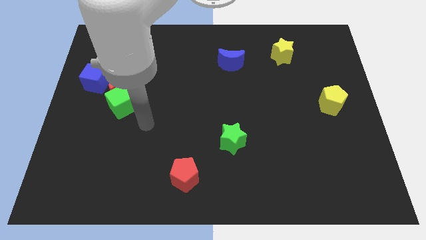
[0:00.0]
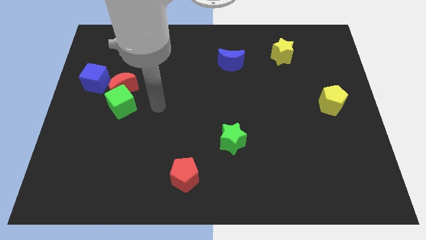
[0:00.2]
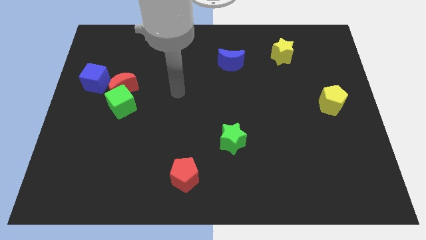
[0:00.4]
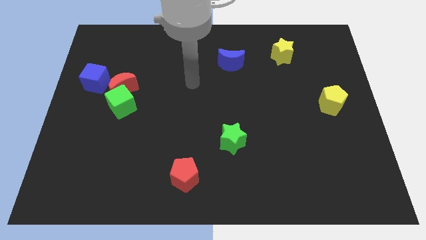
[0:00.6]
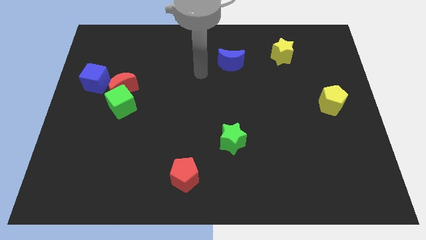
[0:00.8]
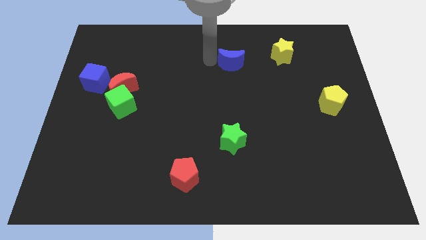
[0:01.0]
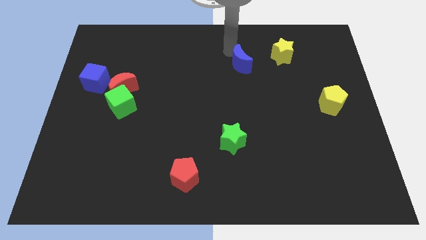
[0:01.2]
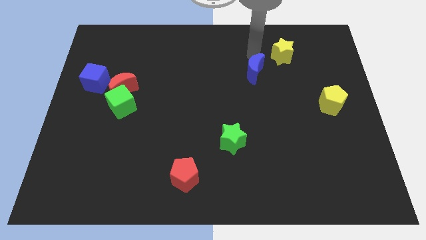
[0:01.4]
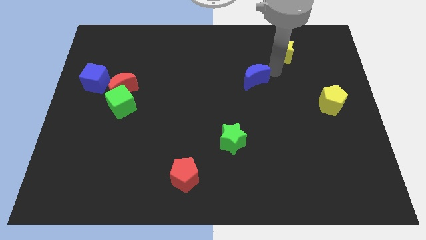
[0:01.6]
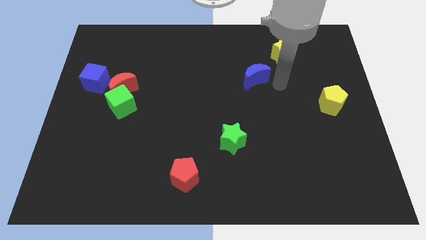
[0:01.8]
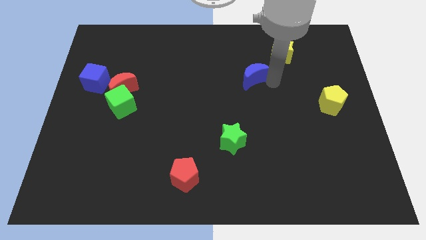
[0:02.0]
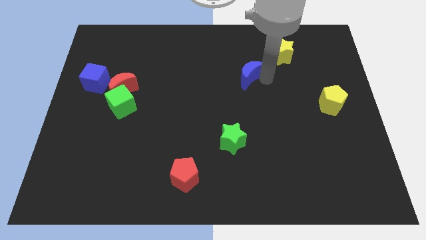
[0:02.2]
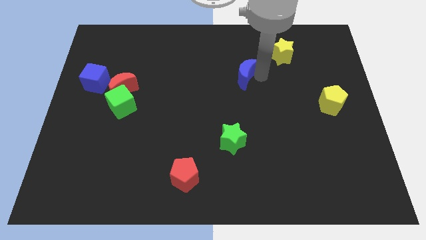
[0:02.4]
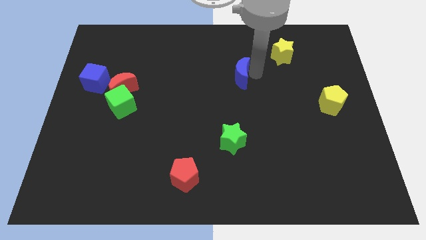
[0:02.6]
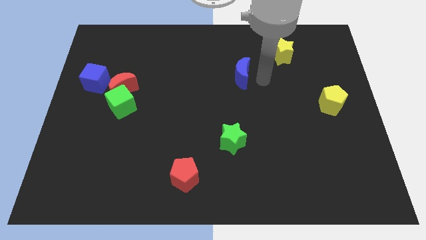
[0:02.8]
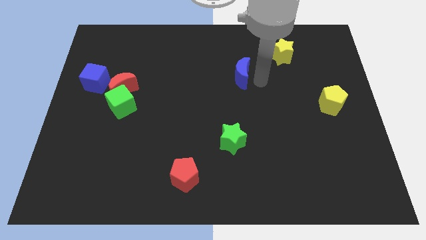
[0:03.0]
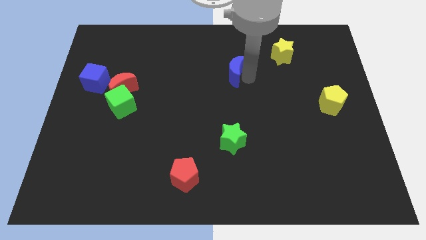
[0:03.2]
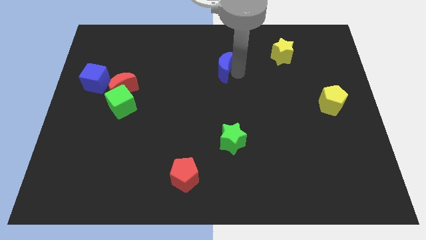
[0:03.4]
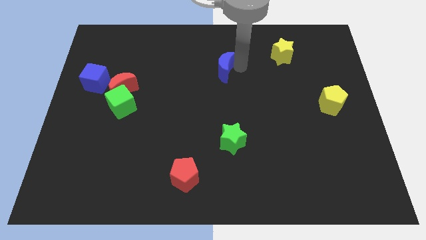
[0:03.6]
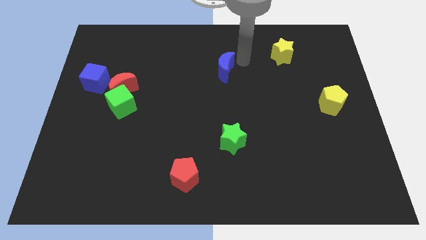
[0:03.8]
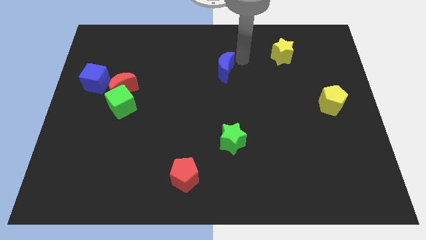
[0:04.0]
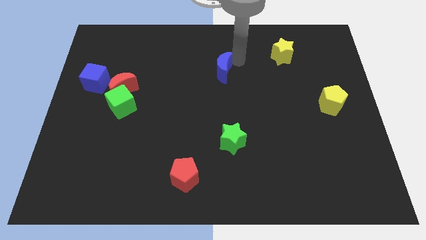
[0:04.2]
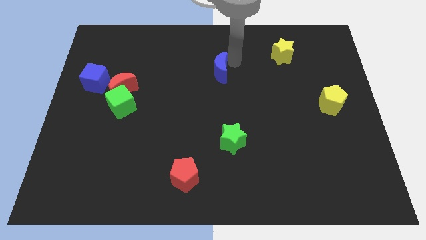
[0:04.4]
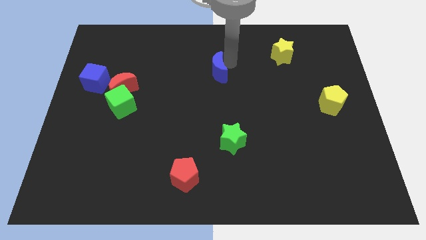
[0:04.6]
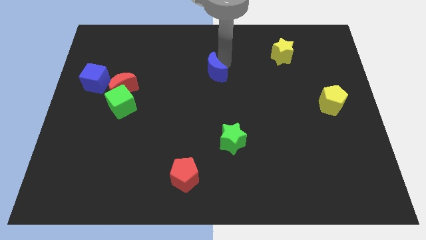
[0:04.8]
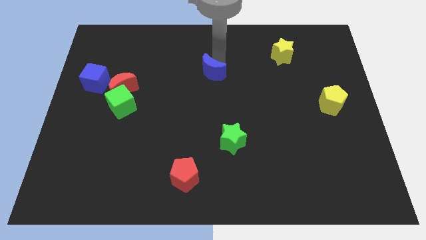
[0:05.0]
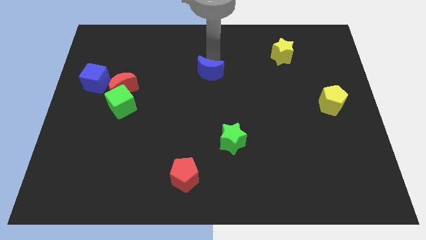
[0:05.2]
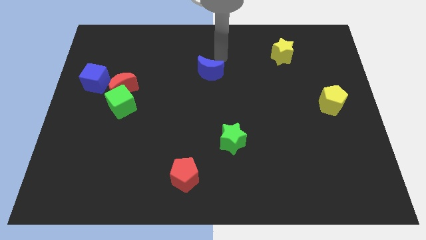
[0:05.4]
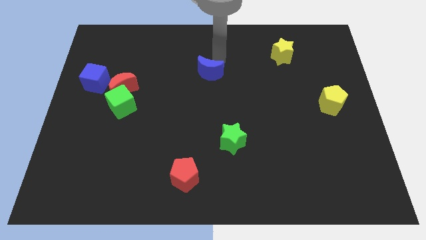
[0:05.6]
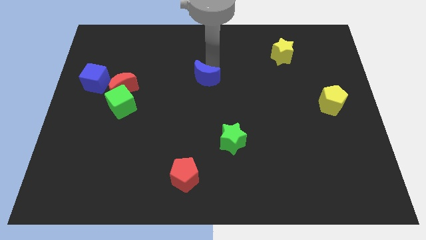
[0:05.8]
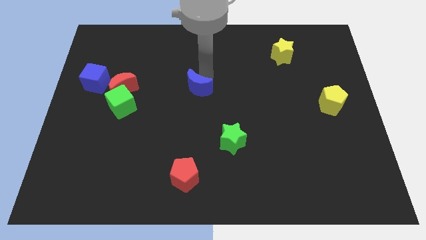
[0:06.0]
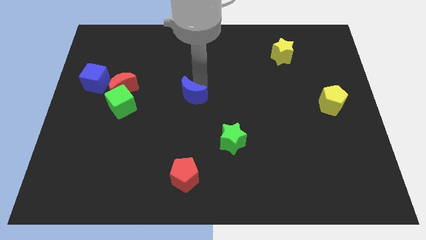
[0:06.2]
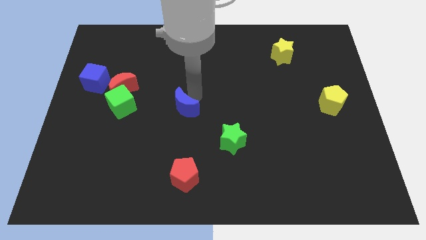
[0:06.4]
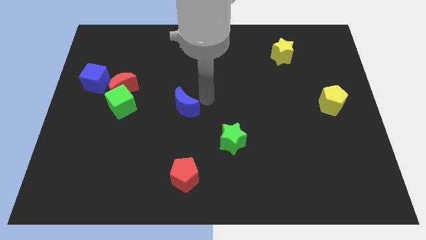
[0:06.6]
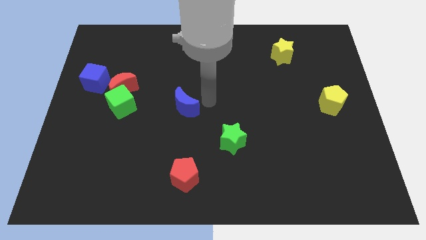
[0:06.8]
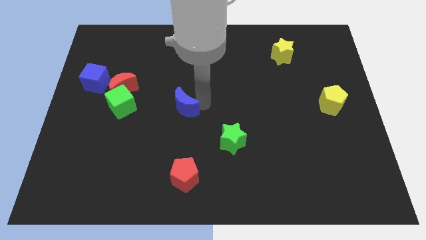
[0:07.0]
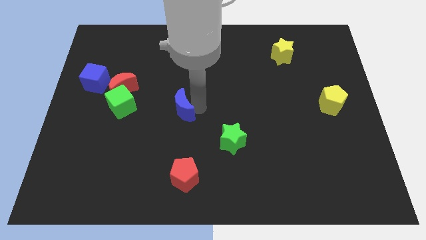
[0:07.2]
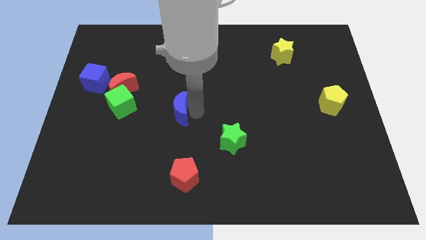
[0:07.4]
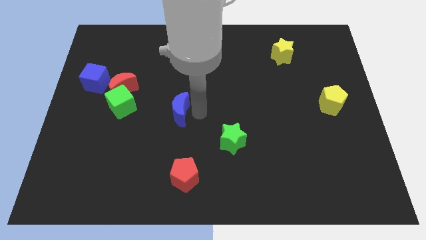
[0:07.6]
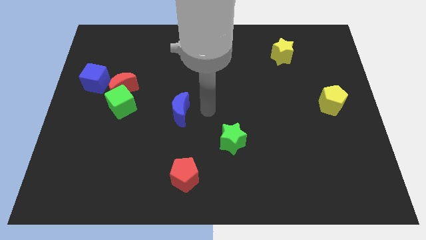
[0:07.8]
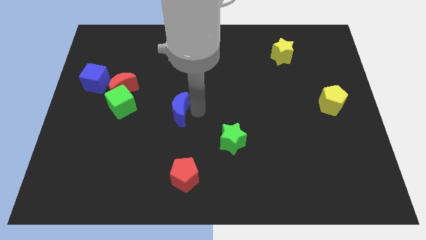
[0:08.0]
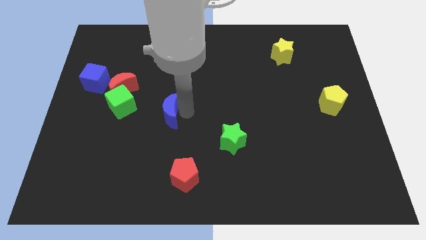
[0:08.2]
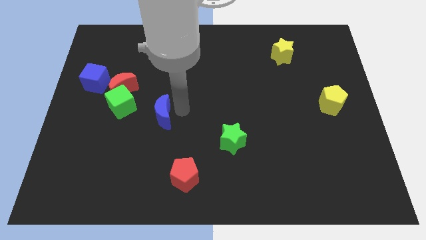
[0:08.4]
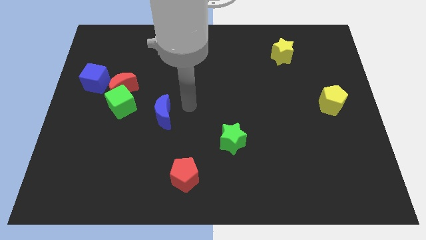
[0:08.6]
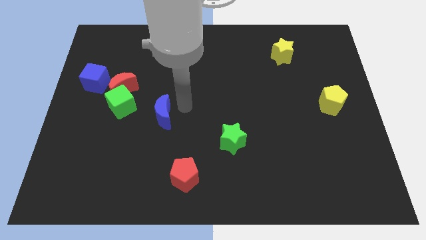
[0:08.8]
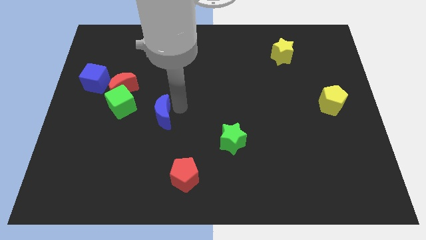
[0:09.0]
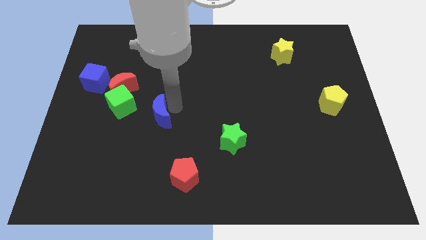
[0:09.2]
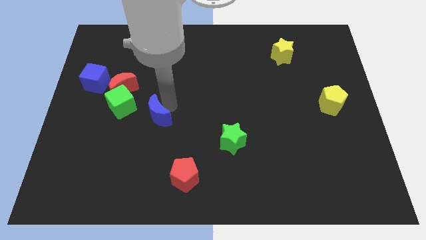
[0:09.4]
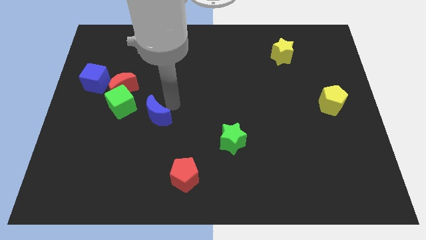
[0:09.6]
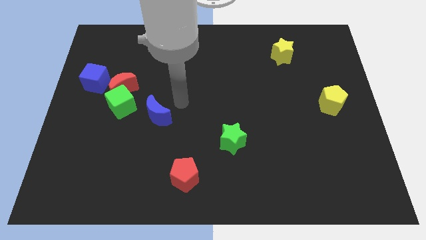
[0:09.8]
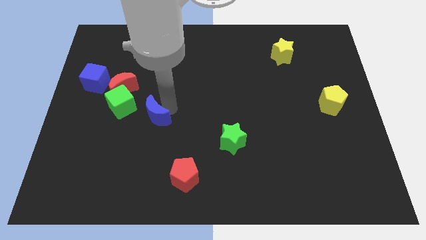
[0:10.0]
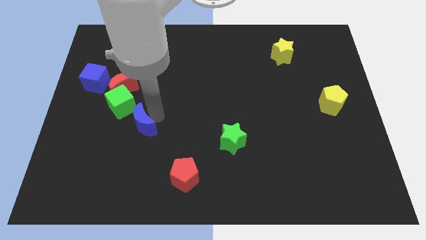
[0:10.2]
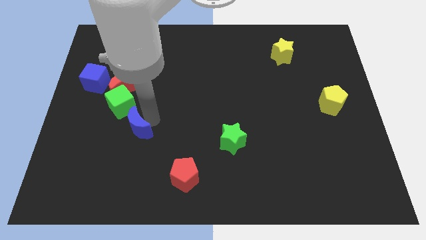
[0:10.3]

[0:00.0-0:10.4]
slide the blue moon to the bottom of the green cube

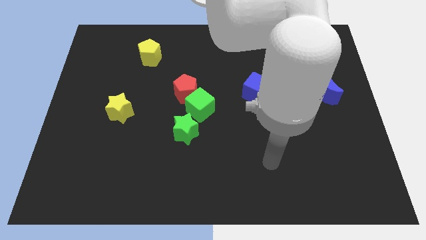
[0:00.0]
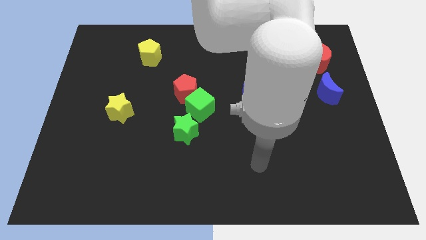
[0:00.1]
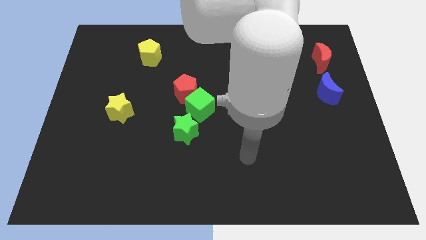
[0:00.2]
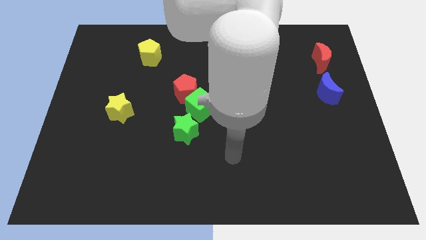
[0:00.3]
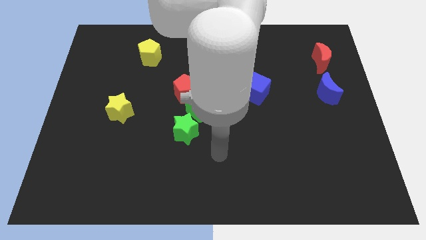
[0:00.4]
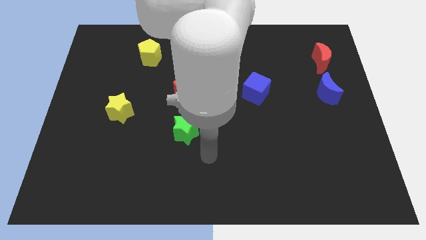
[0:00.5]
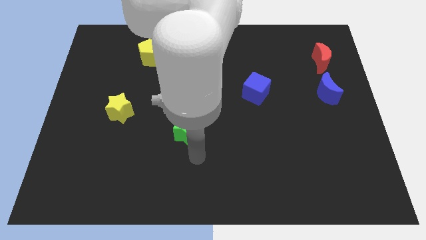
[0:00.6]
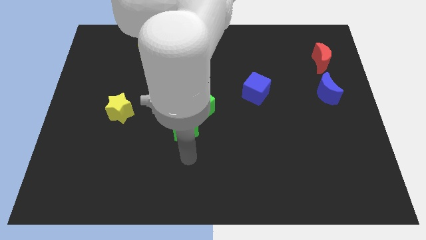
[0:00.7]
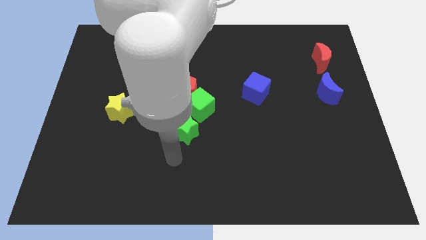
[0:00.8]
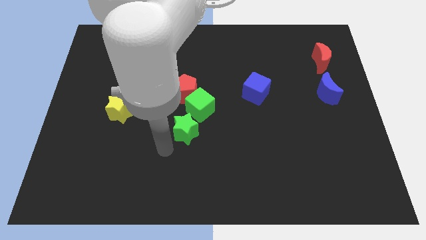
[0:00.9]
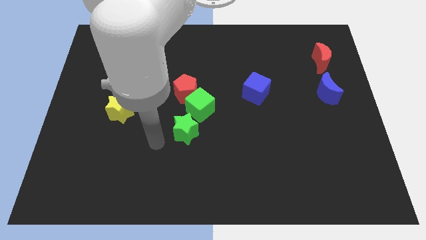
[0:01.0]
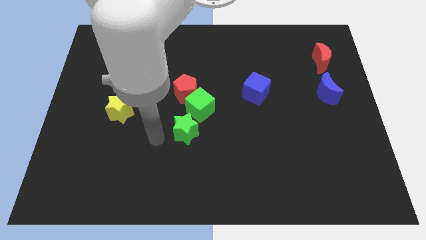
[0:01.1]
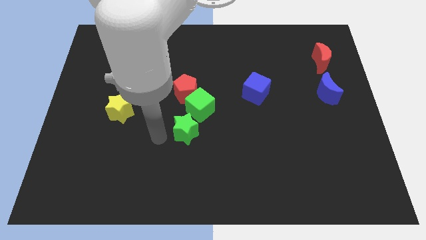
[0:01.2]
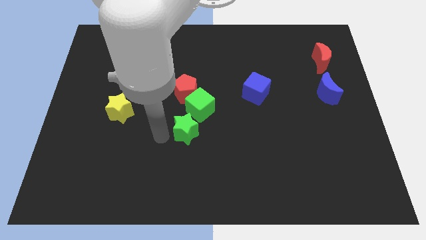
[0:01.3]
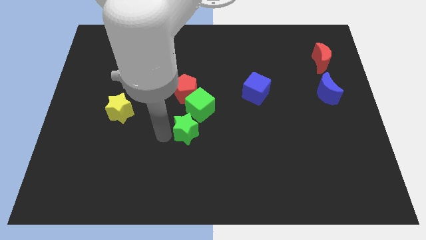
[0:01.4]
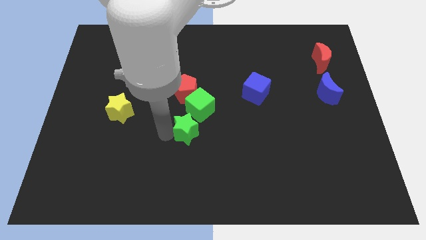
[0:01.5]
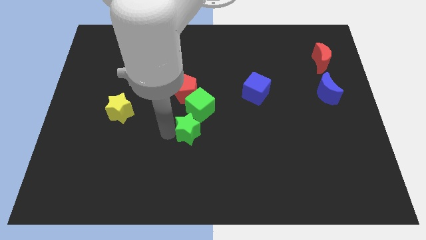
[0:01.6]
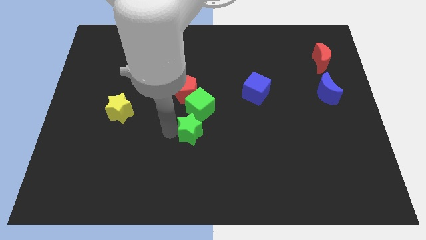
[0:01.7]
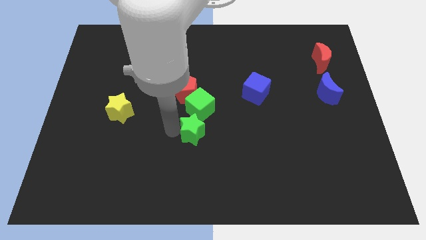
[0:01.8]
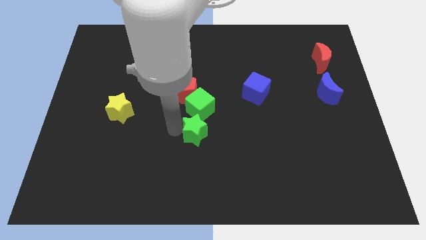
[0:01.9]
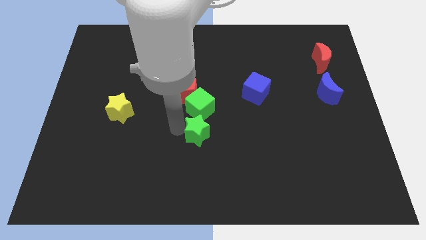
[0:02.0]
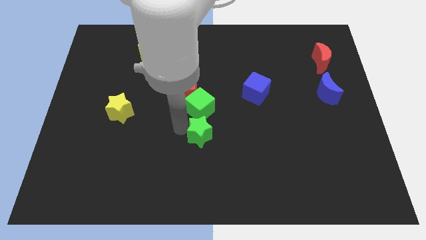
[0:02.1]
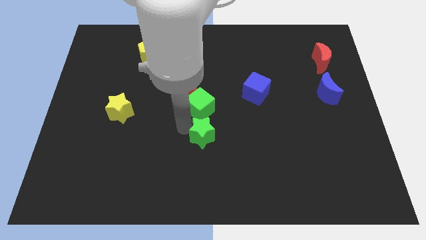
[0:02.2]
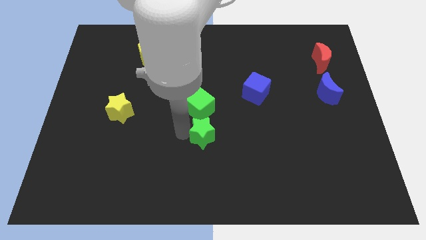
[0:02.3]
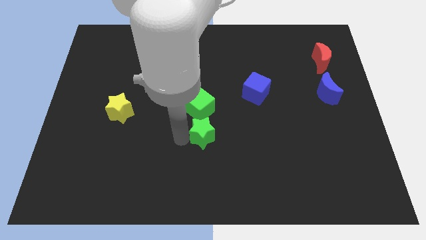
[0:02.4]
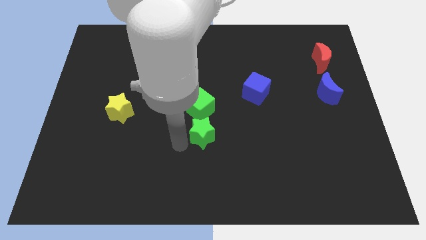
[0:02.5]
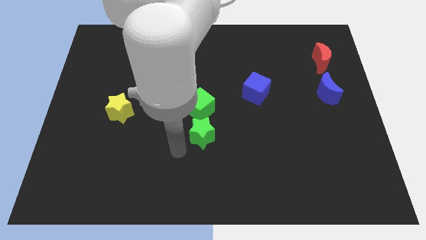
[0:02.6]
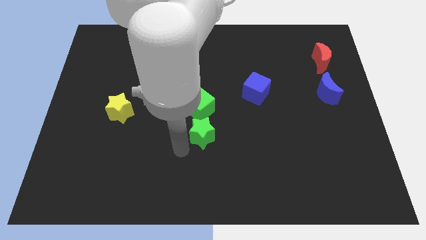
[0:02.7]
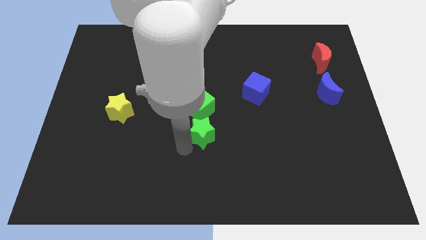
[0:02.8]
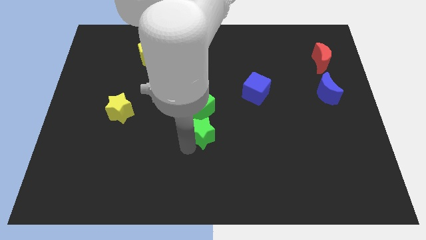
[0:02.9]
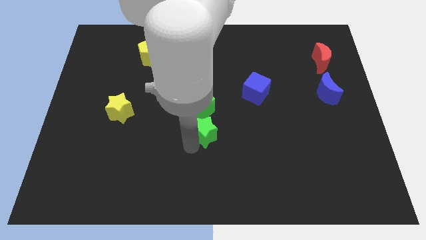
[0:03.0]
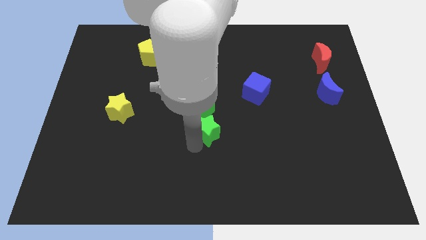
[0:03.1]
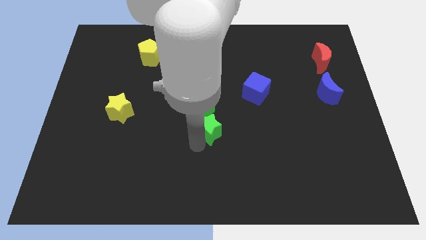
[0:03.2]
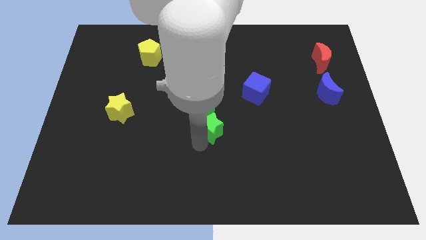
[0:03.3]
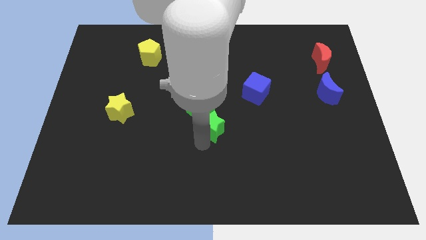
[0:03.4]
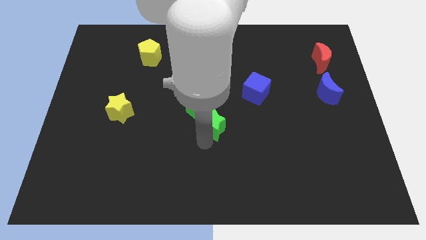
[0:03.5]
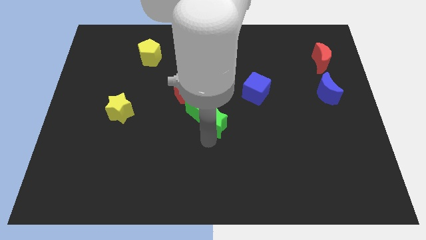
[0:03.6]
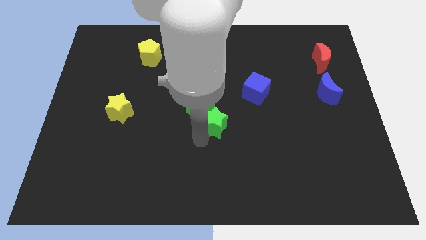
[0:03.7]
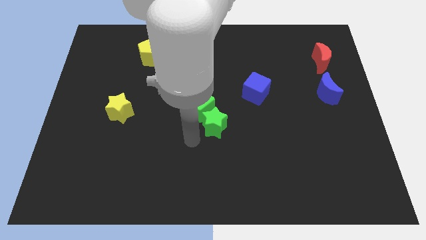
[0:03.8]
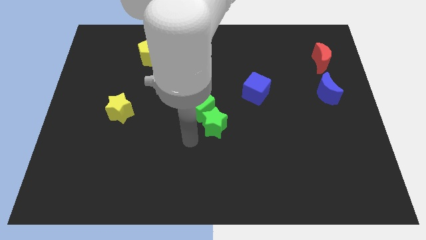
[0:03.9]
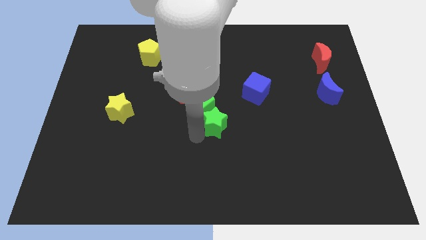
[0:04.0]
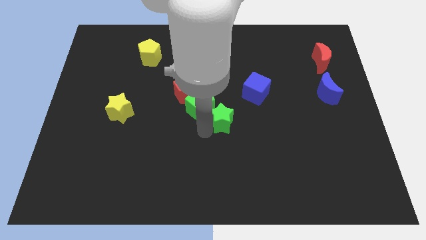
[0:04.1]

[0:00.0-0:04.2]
move the green star to the right of the green cube
